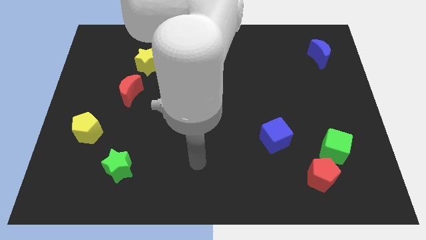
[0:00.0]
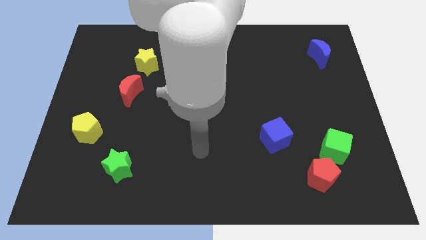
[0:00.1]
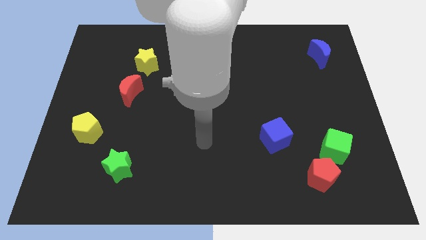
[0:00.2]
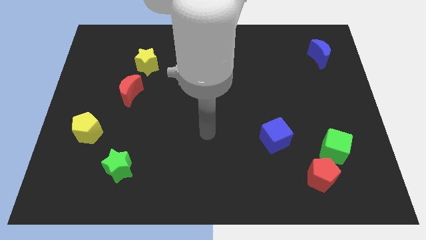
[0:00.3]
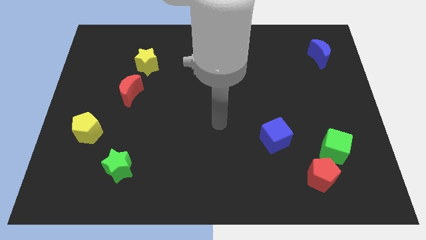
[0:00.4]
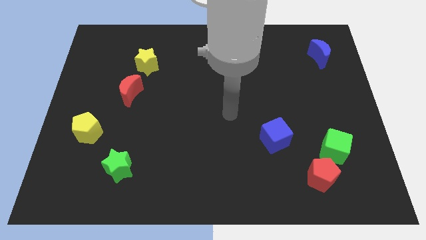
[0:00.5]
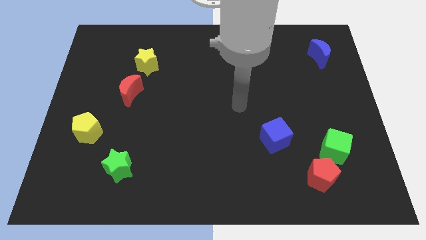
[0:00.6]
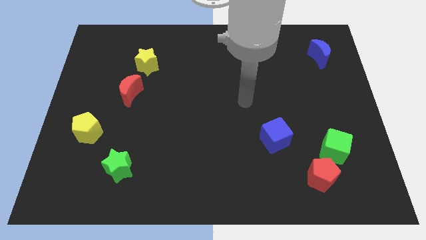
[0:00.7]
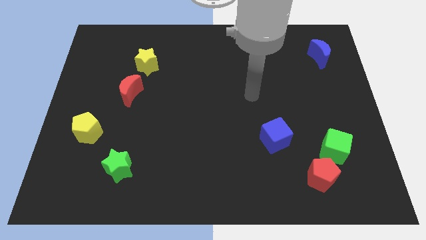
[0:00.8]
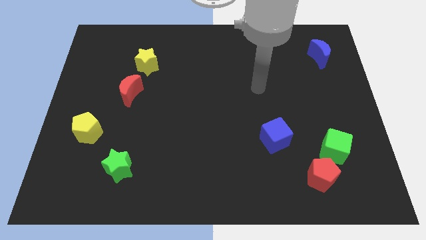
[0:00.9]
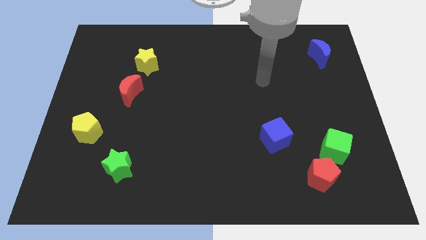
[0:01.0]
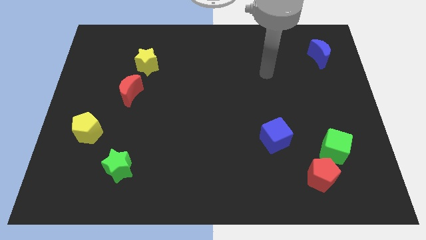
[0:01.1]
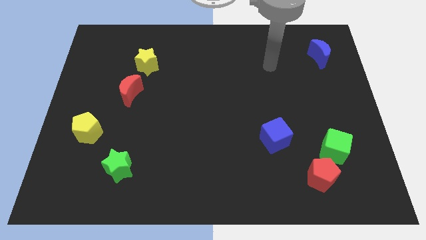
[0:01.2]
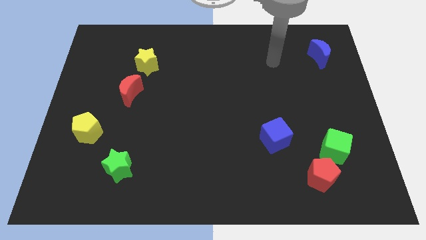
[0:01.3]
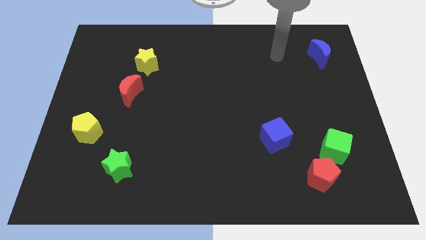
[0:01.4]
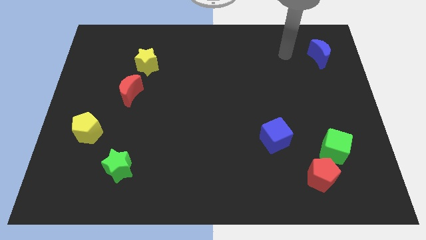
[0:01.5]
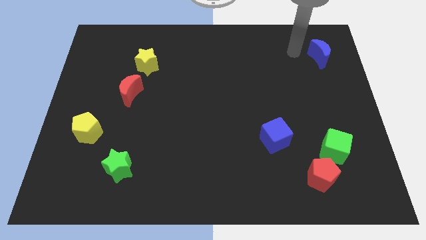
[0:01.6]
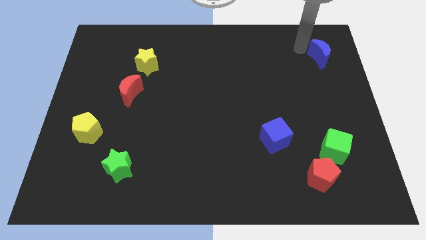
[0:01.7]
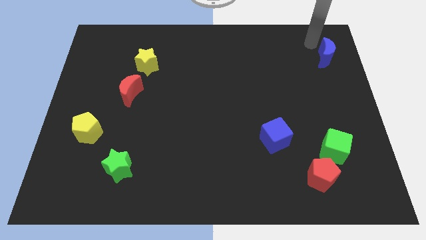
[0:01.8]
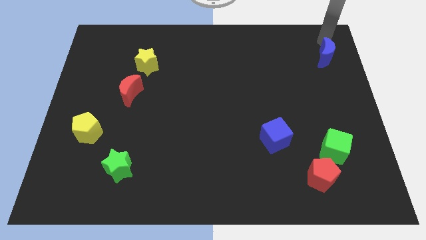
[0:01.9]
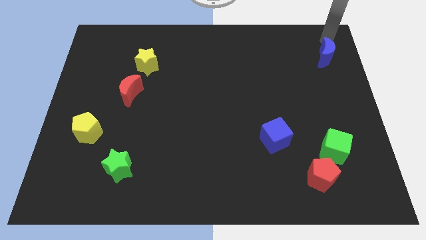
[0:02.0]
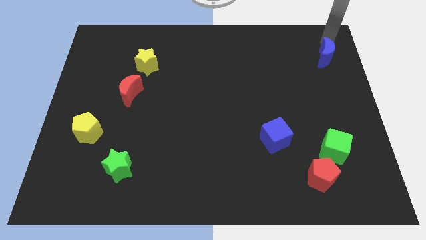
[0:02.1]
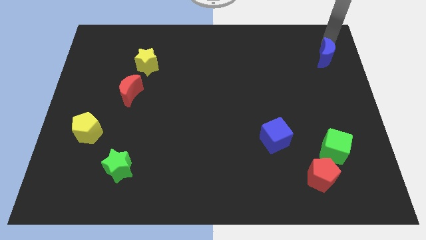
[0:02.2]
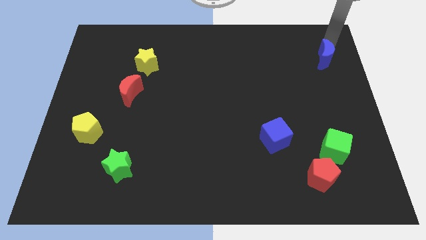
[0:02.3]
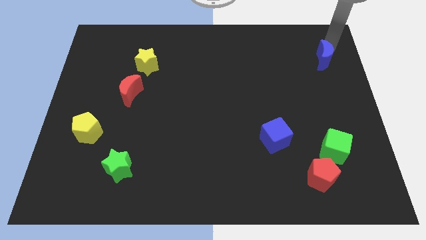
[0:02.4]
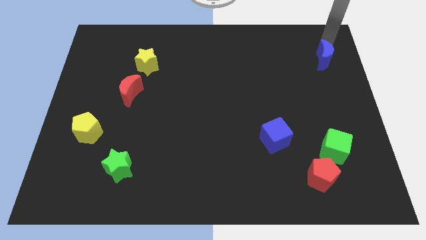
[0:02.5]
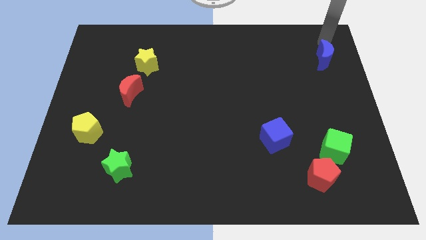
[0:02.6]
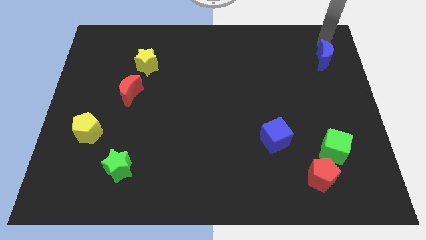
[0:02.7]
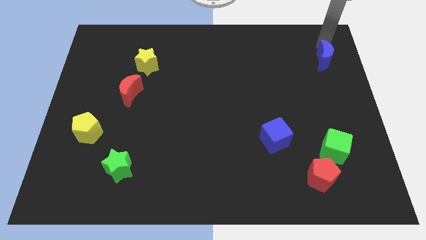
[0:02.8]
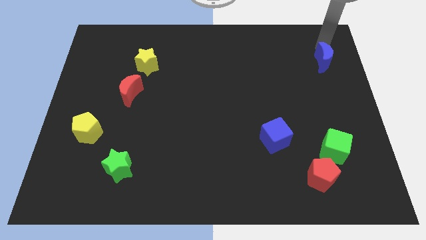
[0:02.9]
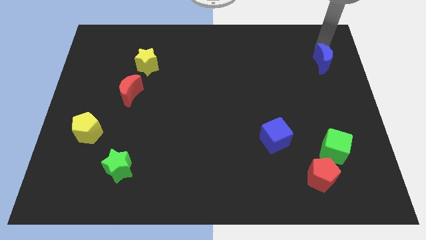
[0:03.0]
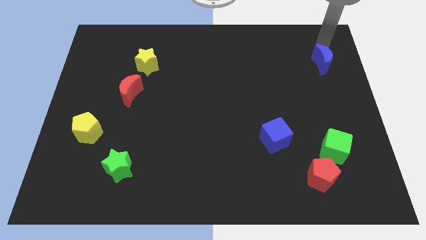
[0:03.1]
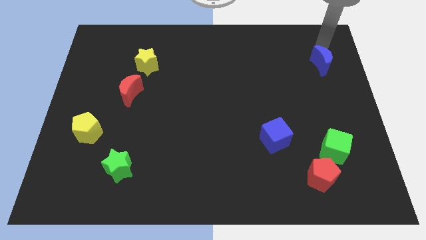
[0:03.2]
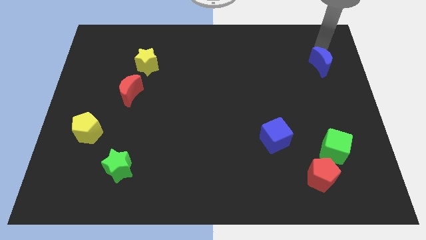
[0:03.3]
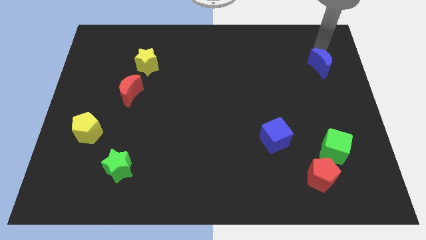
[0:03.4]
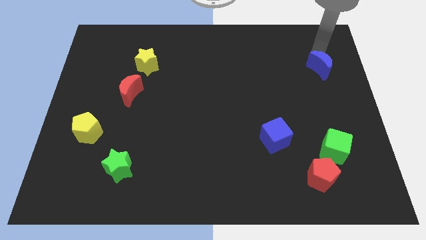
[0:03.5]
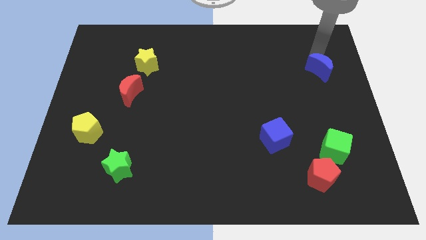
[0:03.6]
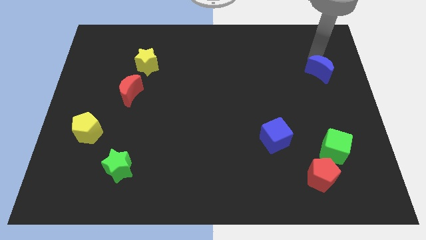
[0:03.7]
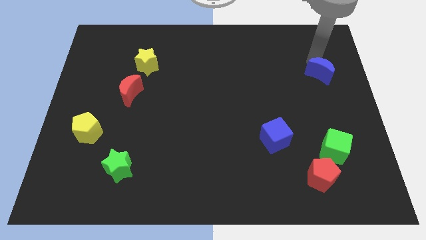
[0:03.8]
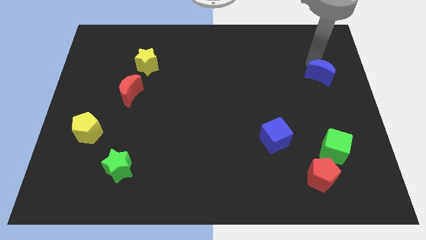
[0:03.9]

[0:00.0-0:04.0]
slide the blue moon a little bit downwards

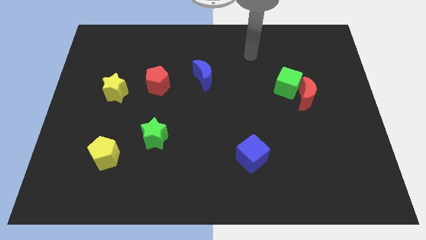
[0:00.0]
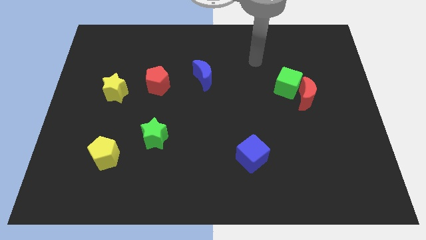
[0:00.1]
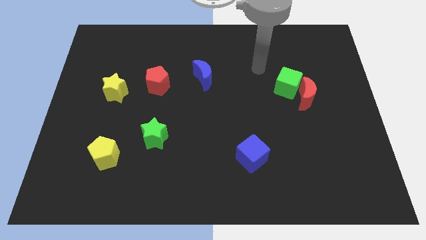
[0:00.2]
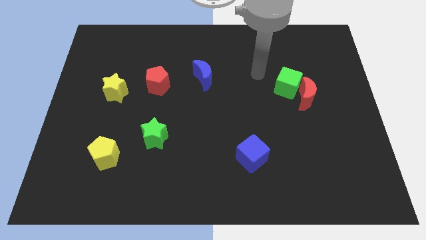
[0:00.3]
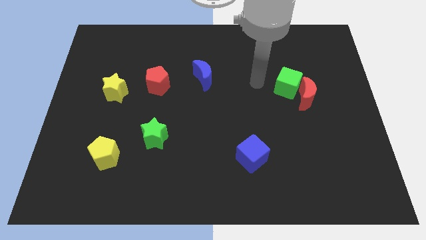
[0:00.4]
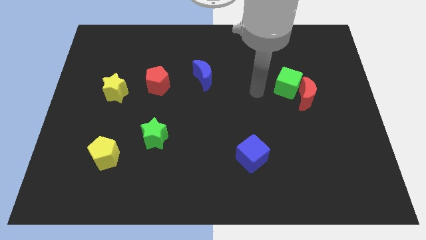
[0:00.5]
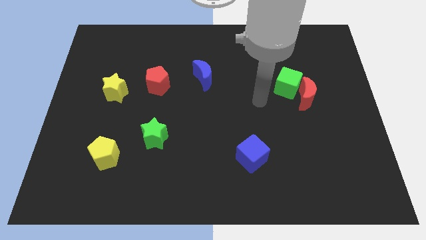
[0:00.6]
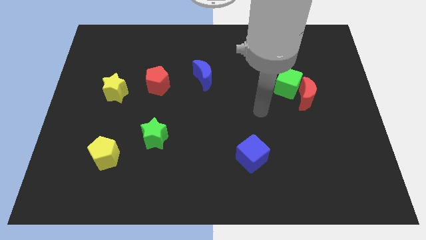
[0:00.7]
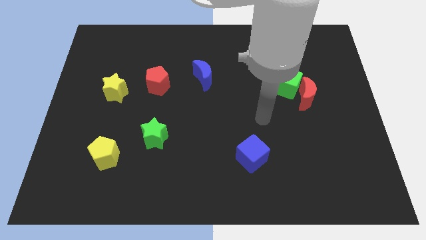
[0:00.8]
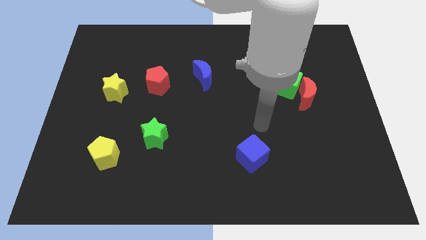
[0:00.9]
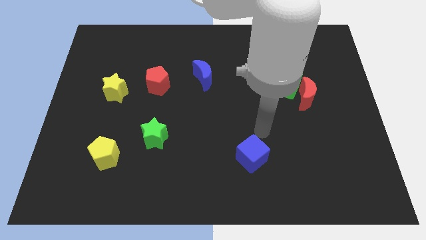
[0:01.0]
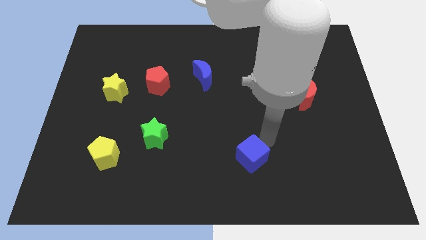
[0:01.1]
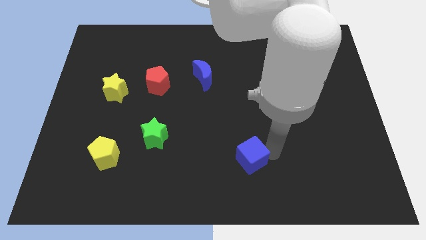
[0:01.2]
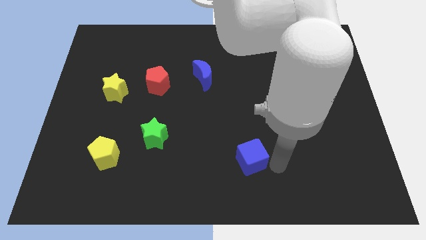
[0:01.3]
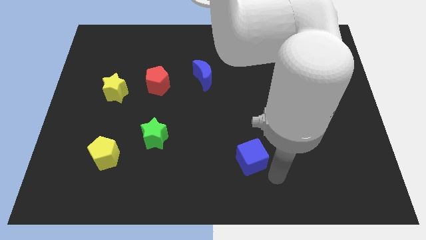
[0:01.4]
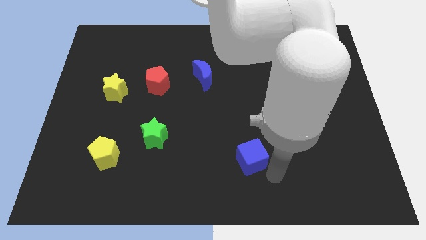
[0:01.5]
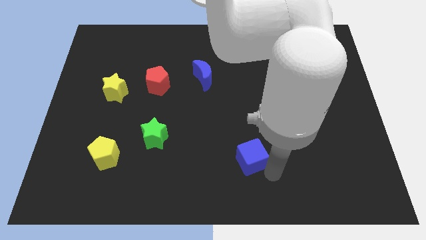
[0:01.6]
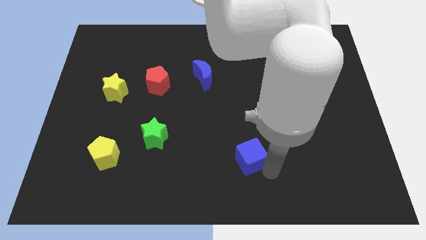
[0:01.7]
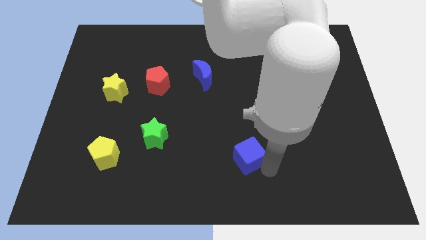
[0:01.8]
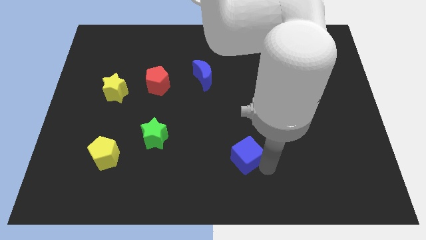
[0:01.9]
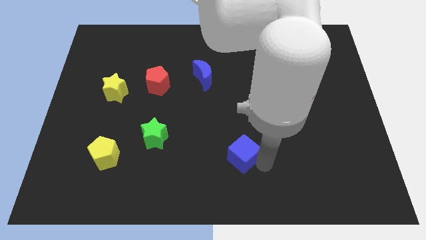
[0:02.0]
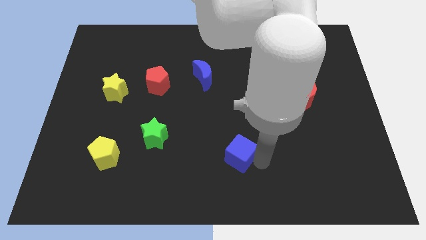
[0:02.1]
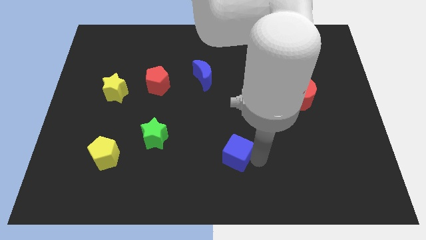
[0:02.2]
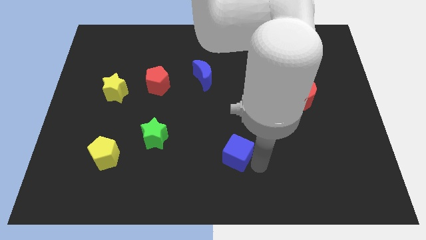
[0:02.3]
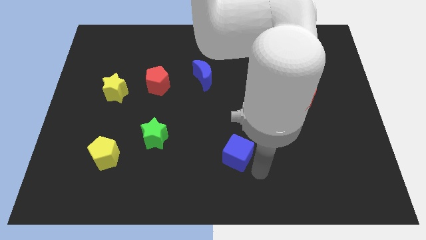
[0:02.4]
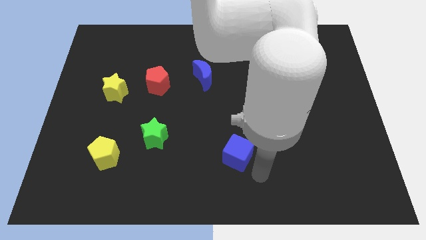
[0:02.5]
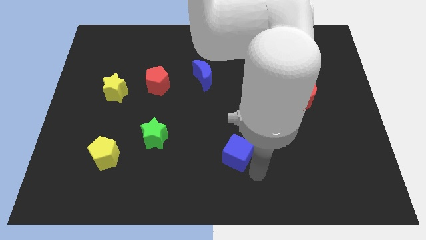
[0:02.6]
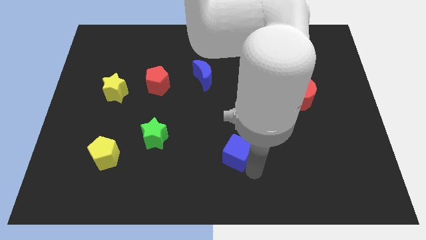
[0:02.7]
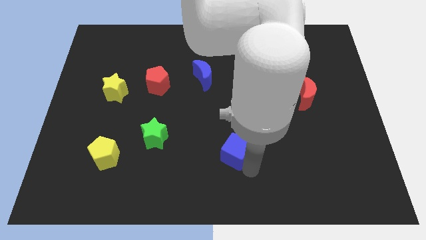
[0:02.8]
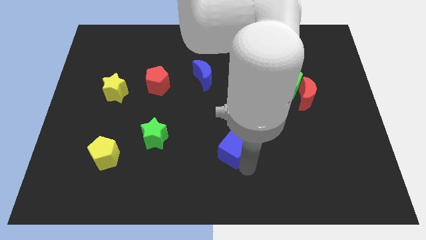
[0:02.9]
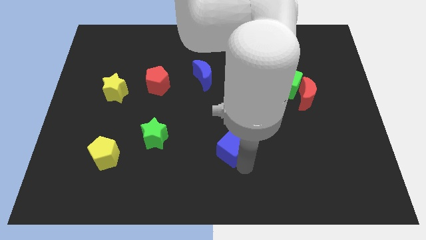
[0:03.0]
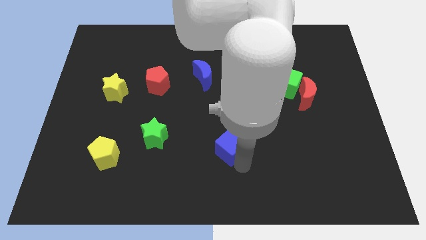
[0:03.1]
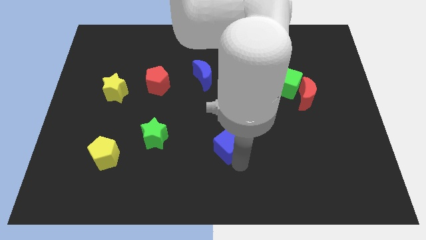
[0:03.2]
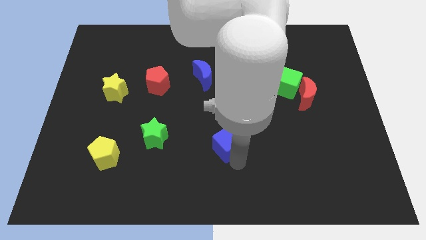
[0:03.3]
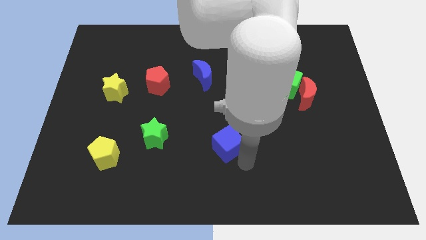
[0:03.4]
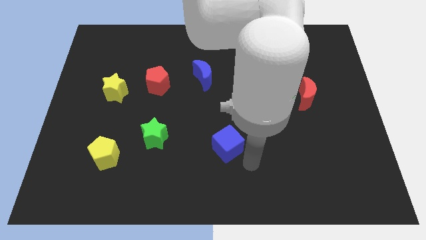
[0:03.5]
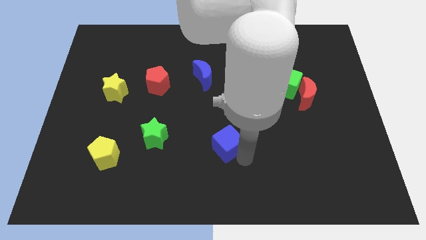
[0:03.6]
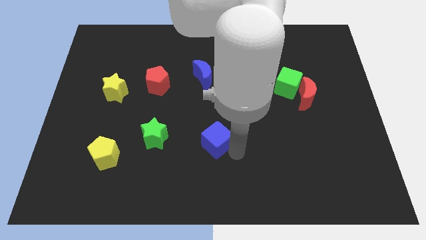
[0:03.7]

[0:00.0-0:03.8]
slightly move the blue cube diagonally up and to the left
